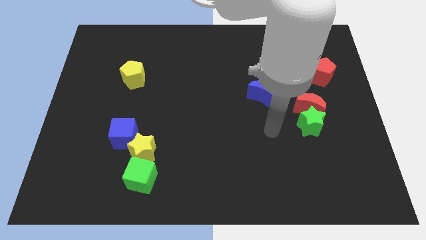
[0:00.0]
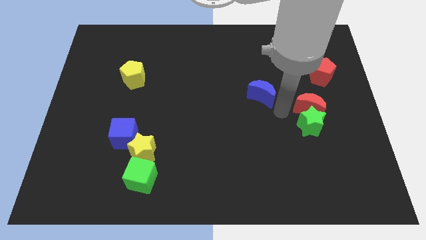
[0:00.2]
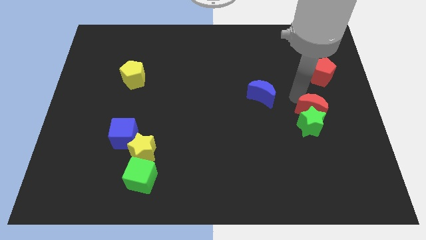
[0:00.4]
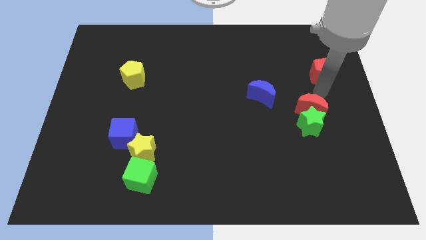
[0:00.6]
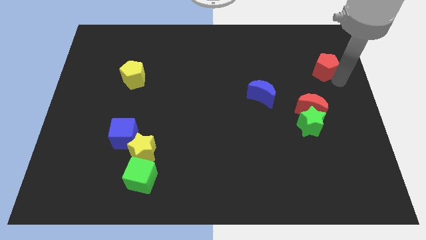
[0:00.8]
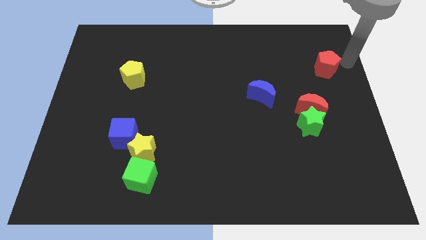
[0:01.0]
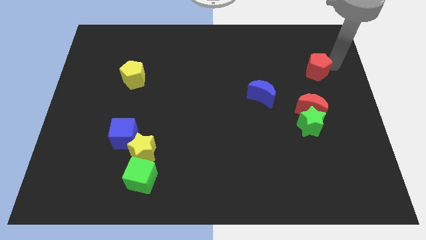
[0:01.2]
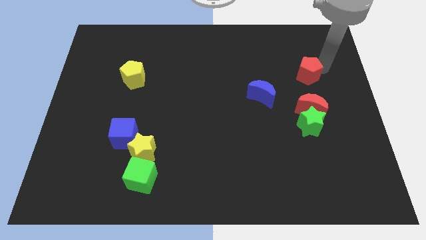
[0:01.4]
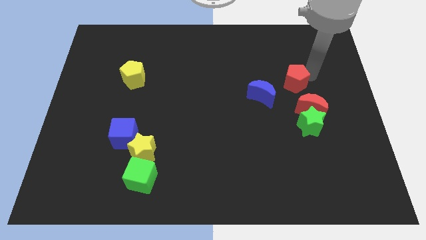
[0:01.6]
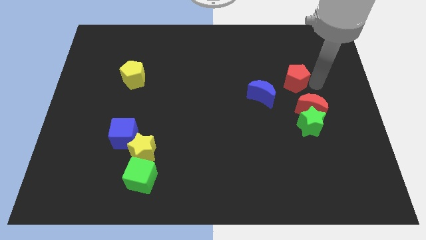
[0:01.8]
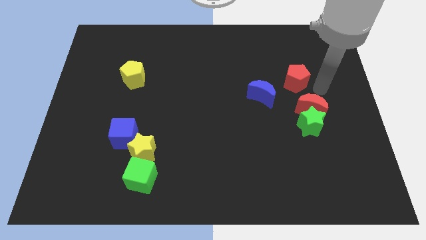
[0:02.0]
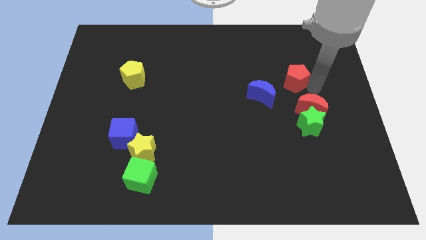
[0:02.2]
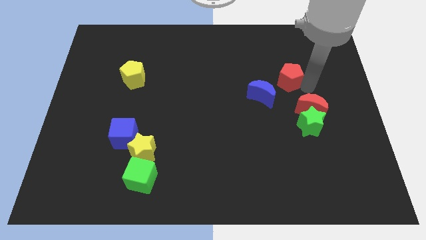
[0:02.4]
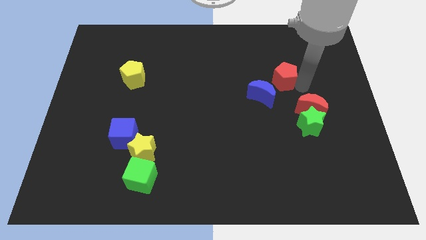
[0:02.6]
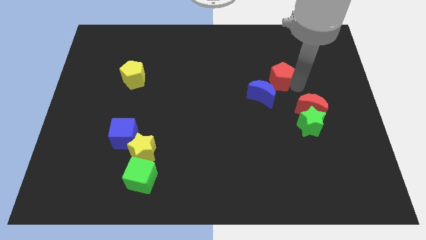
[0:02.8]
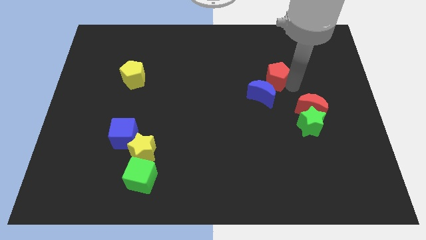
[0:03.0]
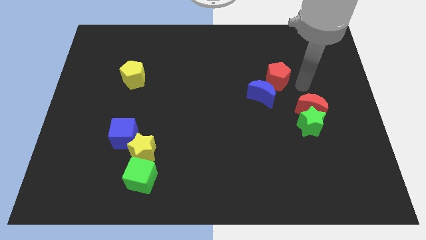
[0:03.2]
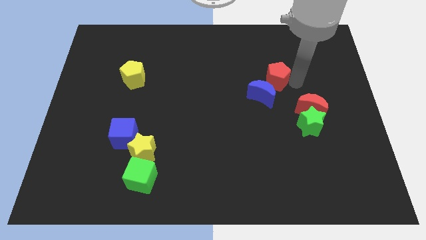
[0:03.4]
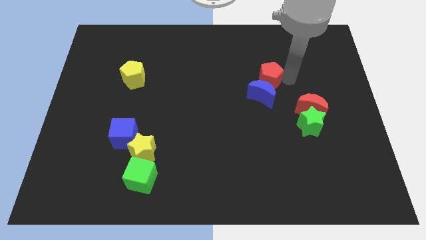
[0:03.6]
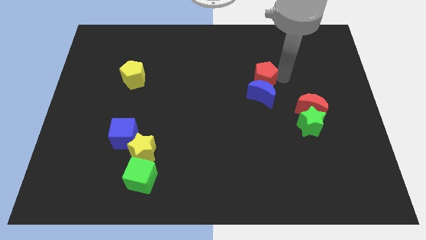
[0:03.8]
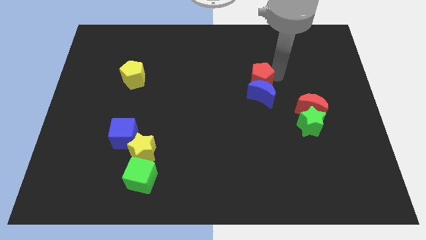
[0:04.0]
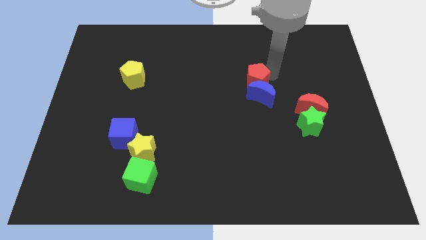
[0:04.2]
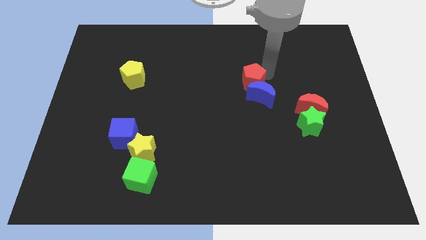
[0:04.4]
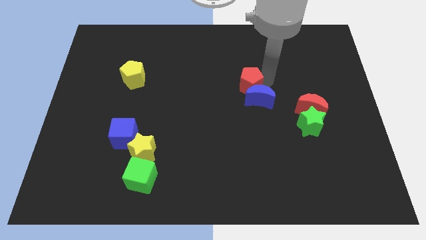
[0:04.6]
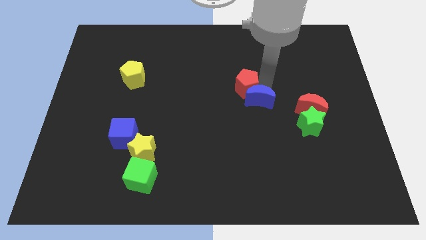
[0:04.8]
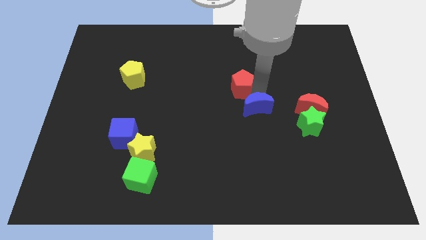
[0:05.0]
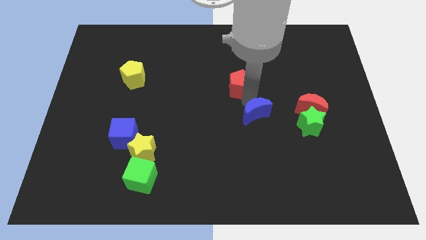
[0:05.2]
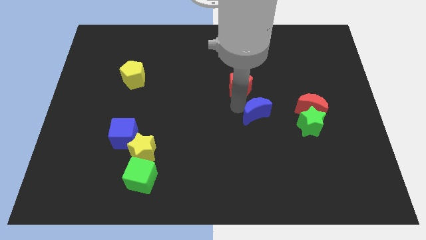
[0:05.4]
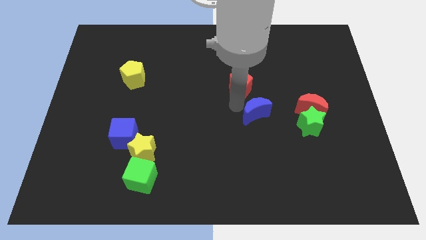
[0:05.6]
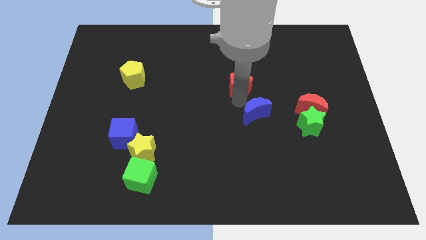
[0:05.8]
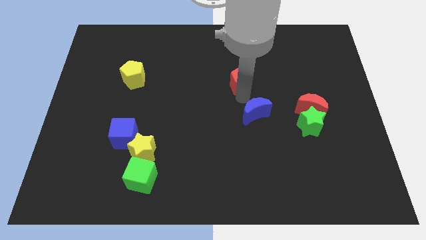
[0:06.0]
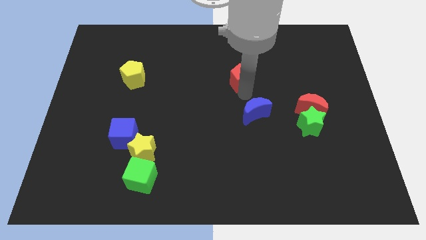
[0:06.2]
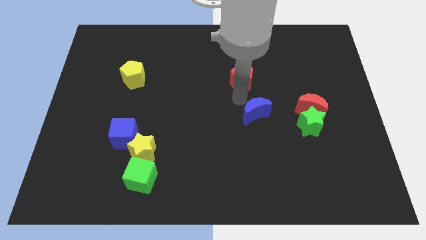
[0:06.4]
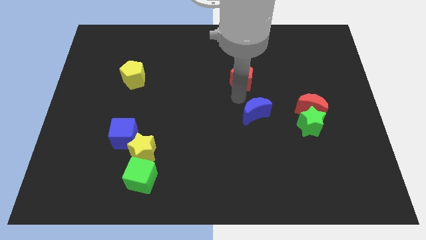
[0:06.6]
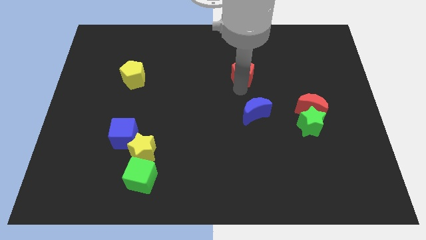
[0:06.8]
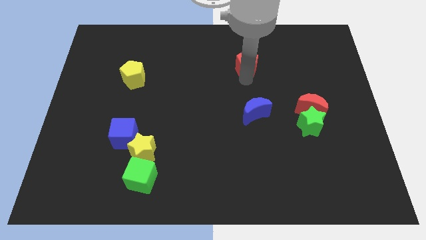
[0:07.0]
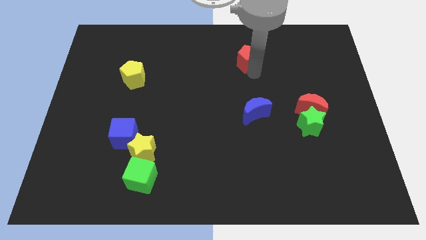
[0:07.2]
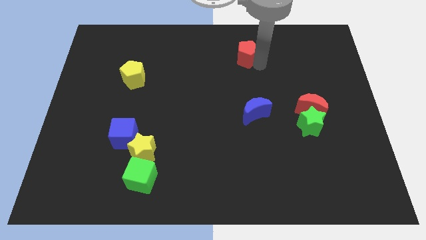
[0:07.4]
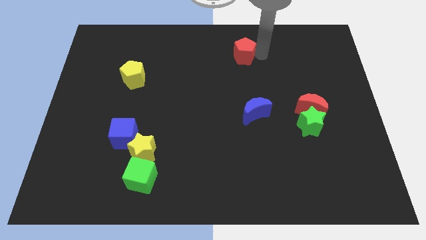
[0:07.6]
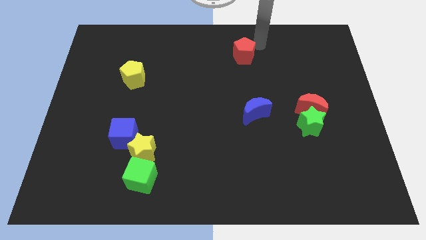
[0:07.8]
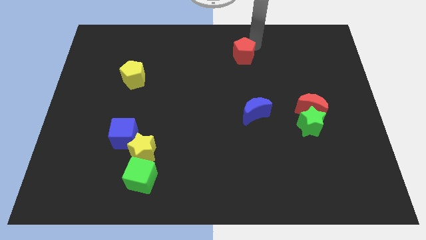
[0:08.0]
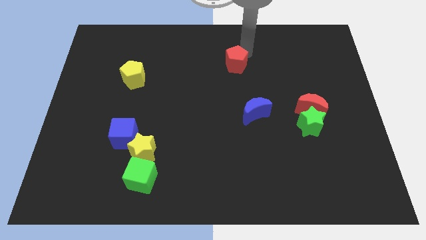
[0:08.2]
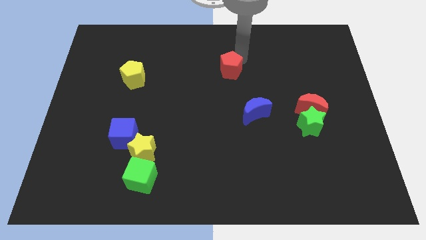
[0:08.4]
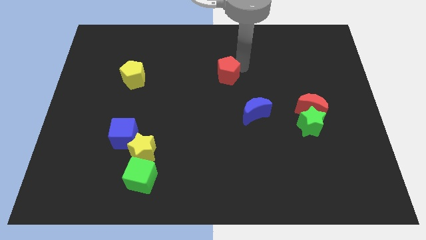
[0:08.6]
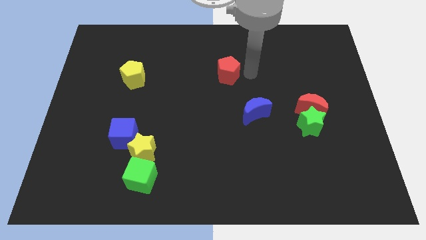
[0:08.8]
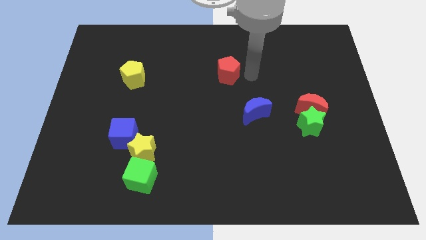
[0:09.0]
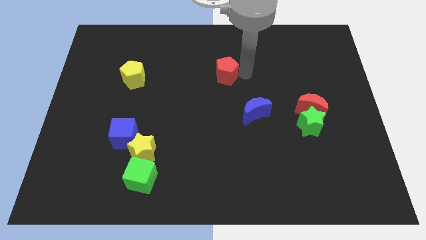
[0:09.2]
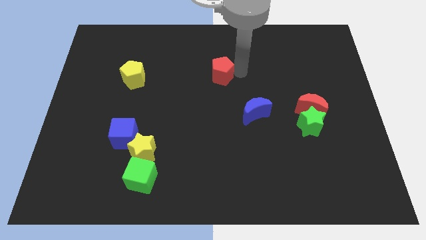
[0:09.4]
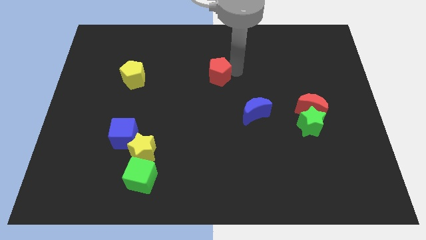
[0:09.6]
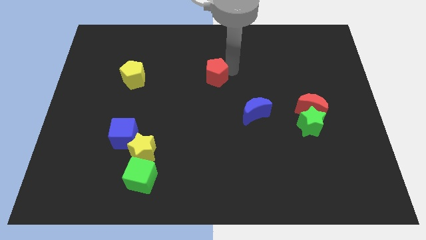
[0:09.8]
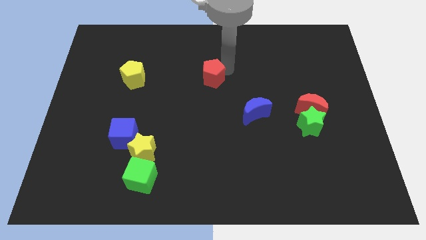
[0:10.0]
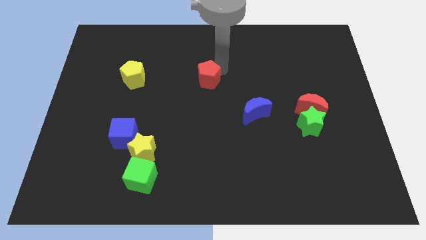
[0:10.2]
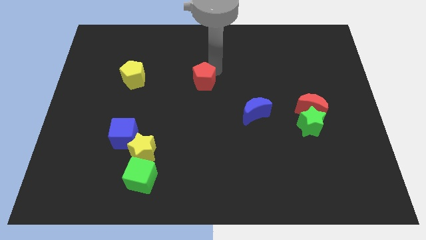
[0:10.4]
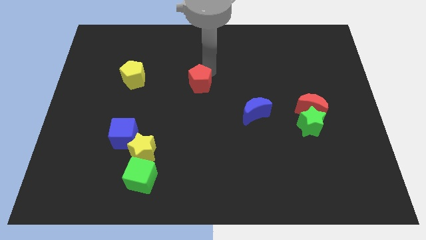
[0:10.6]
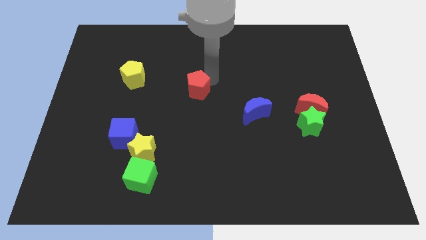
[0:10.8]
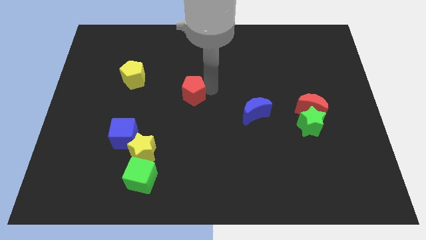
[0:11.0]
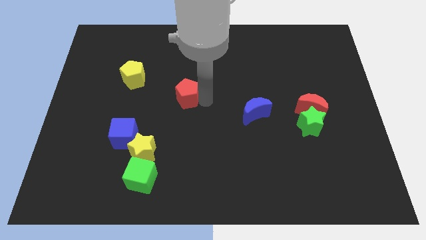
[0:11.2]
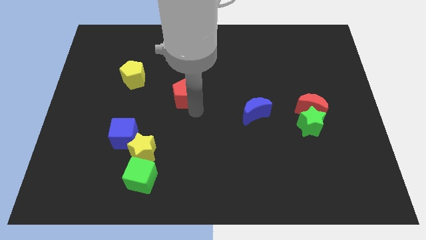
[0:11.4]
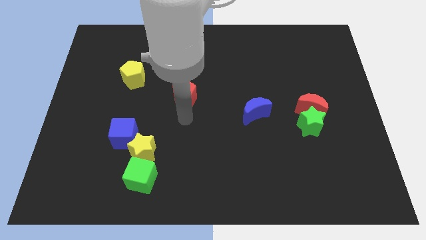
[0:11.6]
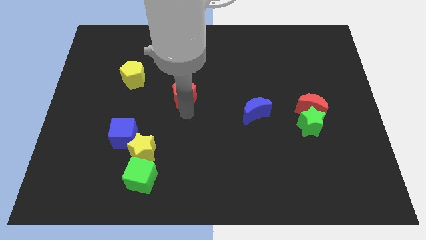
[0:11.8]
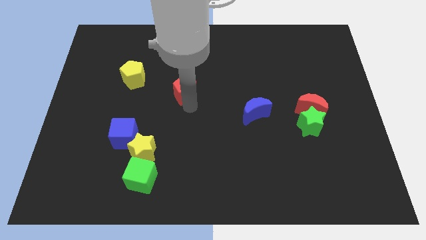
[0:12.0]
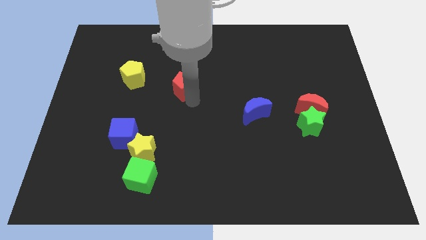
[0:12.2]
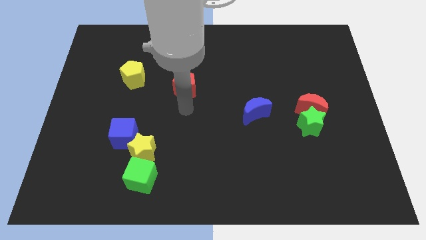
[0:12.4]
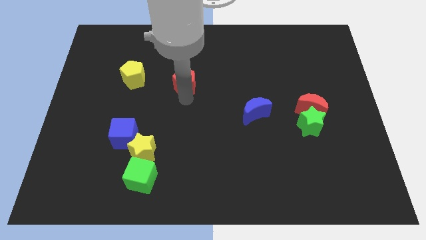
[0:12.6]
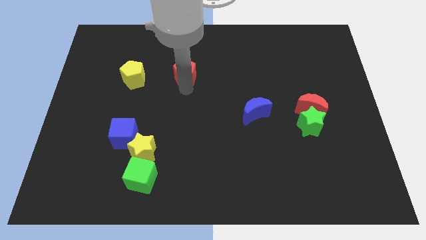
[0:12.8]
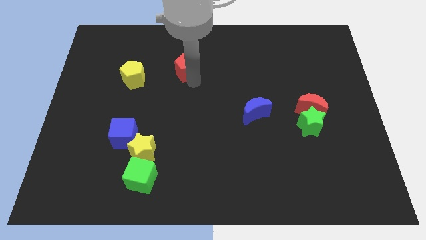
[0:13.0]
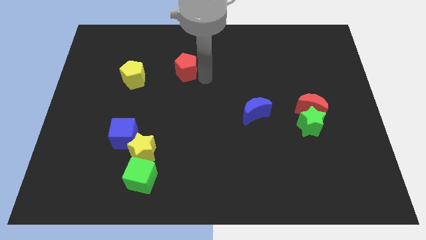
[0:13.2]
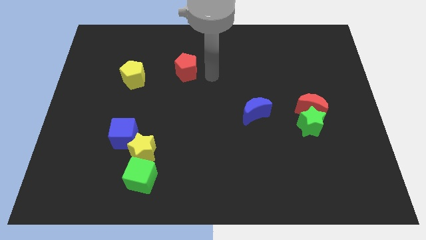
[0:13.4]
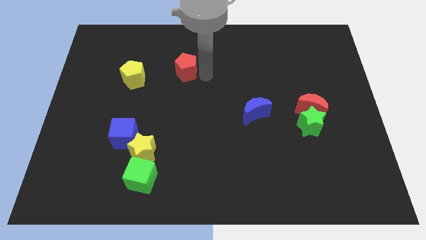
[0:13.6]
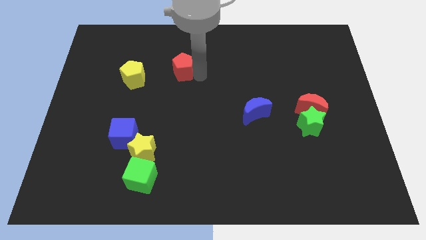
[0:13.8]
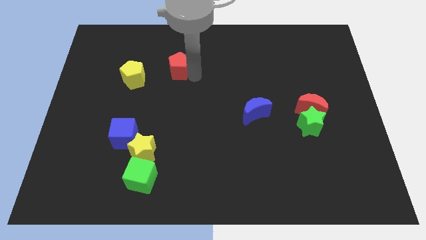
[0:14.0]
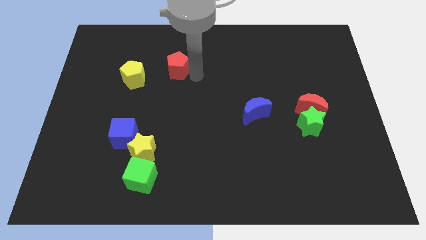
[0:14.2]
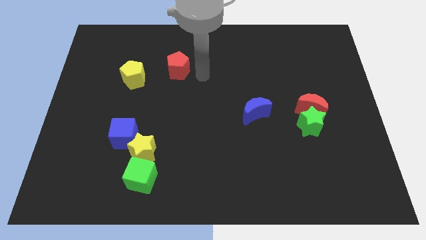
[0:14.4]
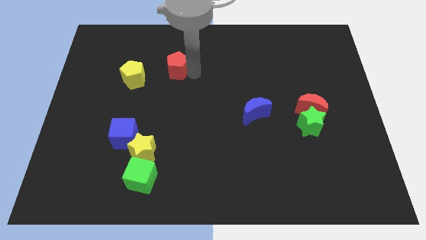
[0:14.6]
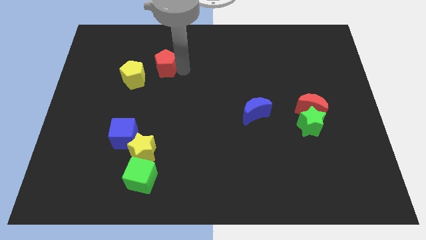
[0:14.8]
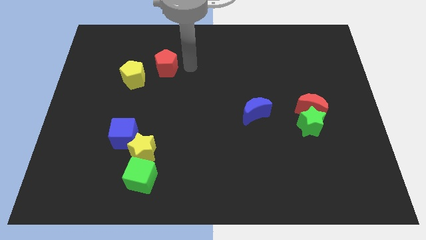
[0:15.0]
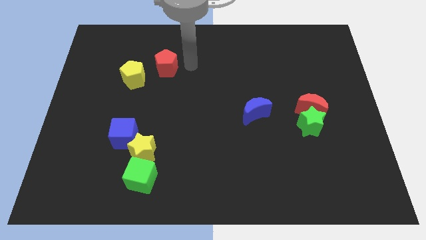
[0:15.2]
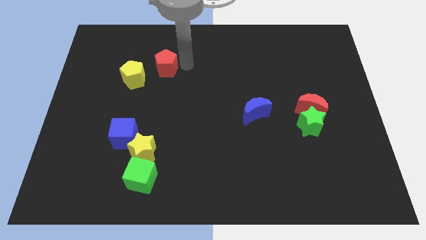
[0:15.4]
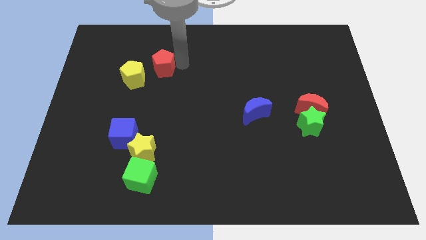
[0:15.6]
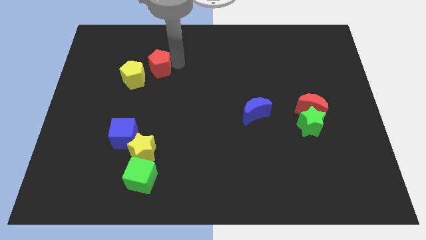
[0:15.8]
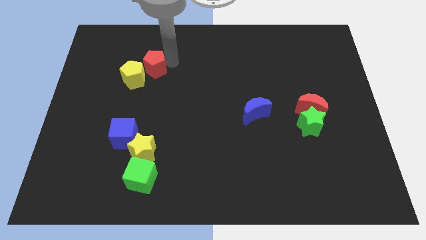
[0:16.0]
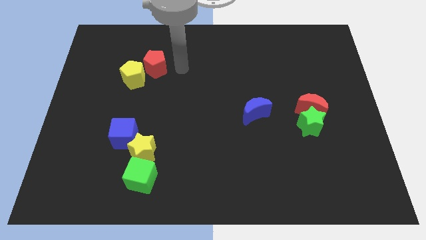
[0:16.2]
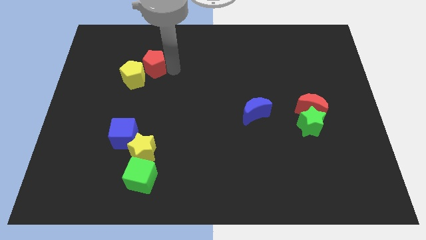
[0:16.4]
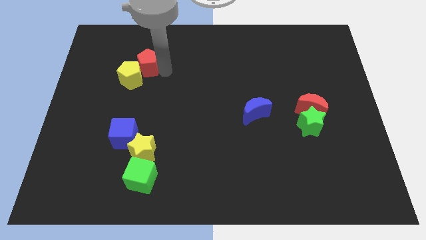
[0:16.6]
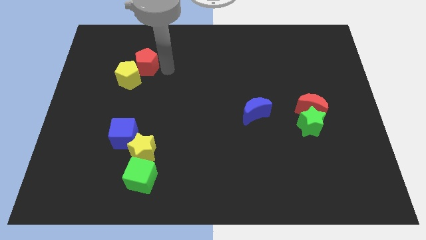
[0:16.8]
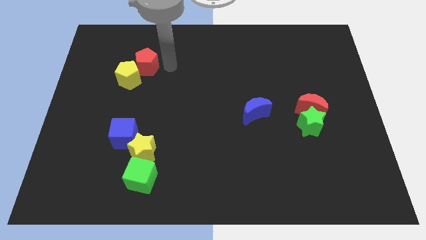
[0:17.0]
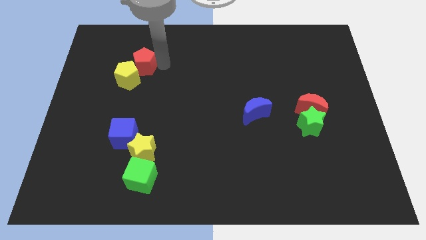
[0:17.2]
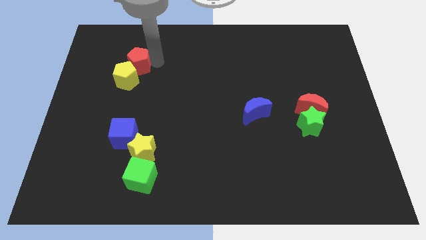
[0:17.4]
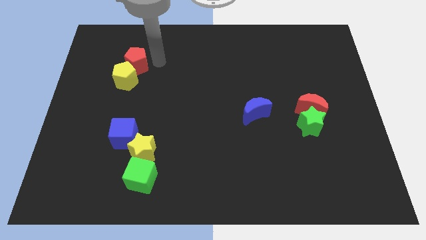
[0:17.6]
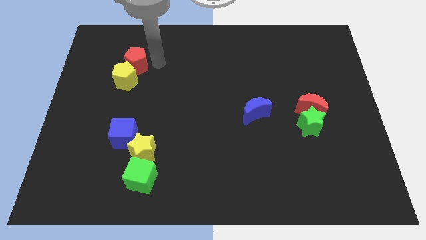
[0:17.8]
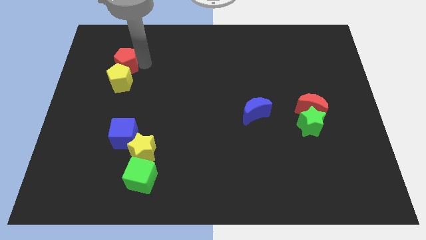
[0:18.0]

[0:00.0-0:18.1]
push the red pentagon diagonally up and to the left of the yellow pentagon
